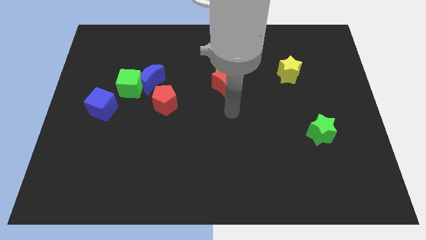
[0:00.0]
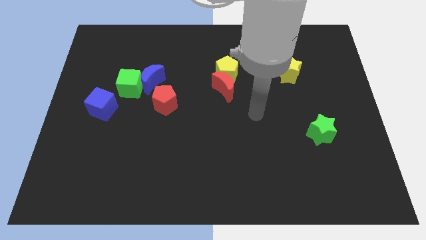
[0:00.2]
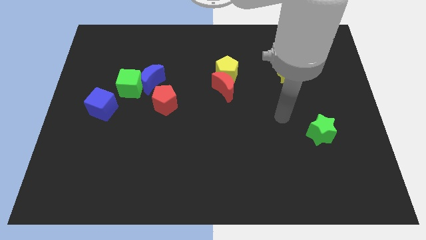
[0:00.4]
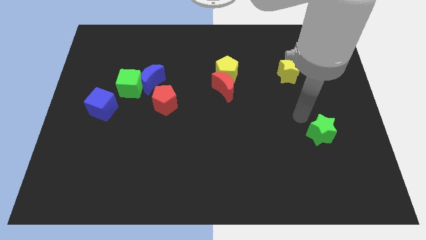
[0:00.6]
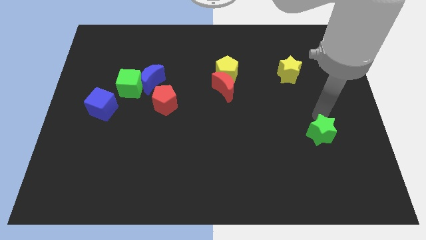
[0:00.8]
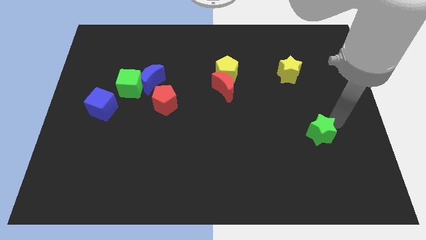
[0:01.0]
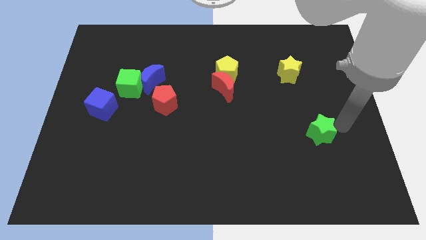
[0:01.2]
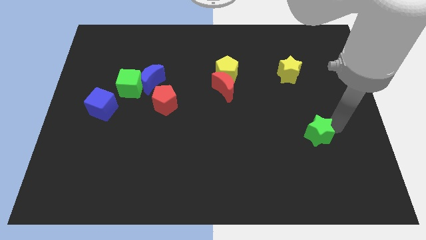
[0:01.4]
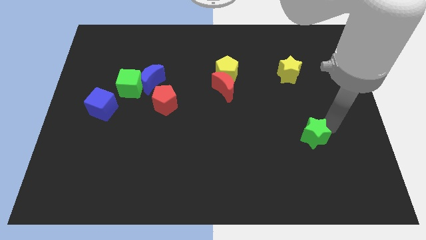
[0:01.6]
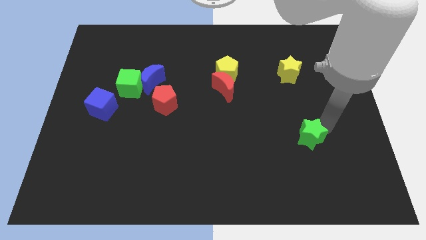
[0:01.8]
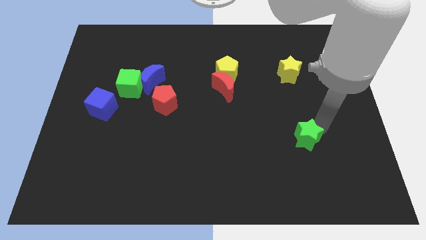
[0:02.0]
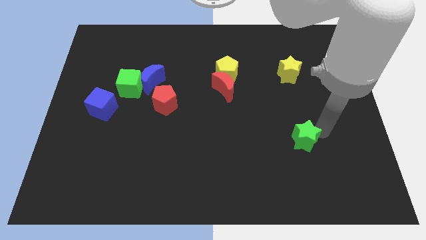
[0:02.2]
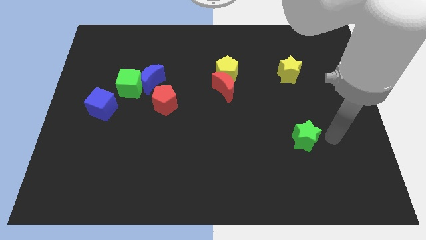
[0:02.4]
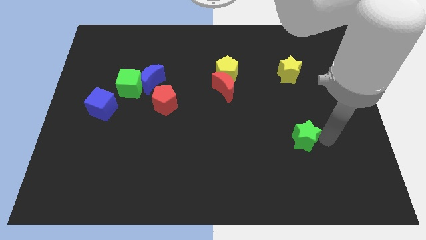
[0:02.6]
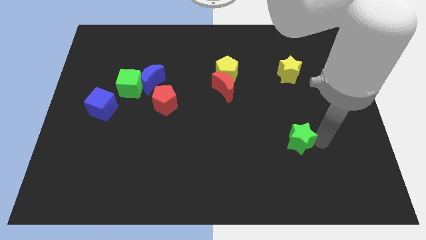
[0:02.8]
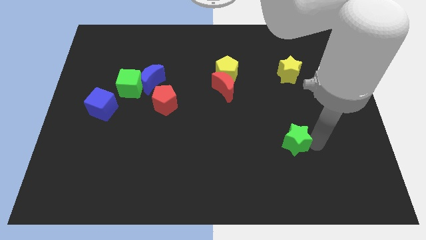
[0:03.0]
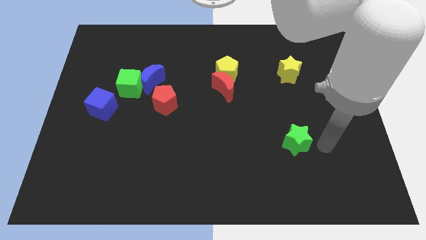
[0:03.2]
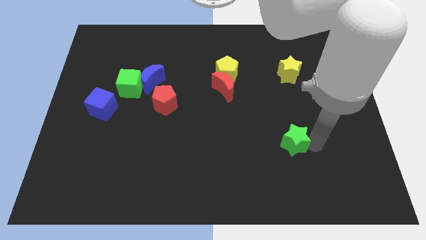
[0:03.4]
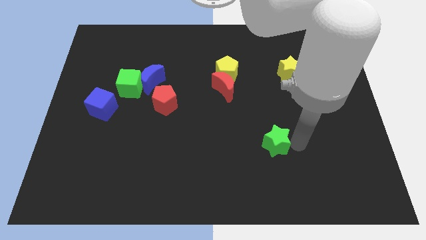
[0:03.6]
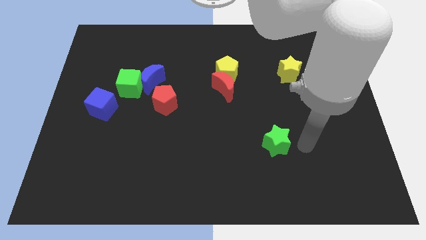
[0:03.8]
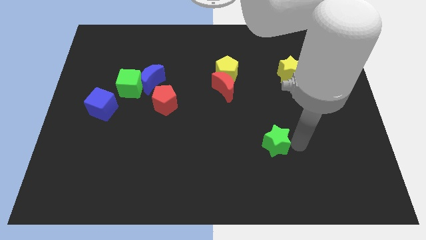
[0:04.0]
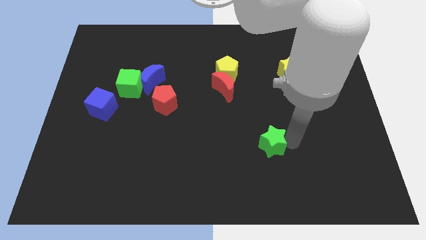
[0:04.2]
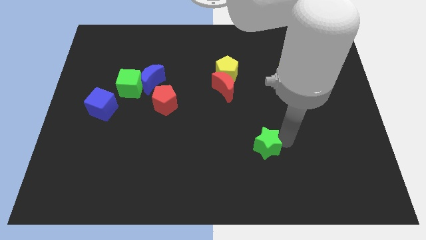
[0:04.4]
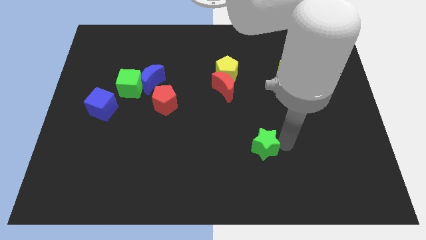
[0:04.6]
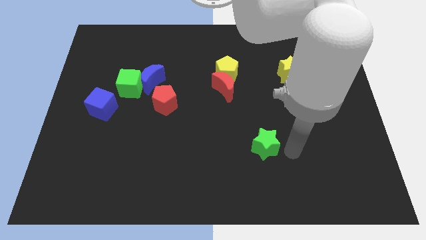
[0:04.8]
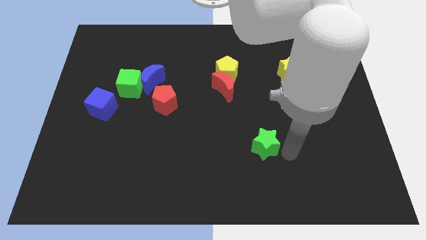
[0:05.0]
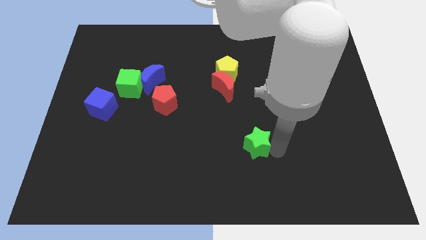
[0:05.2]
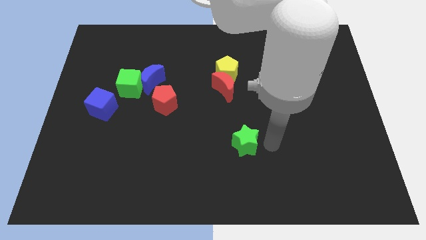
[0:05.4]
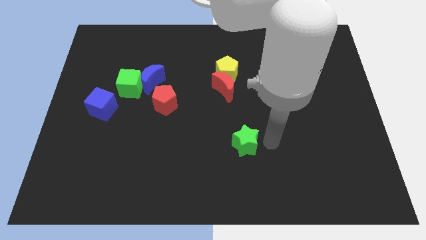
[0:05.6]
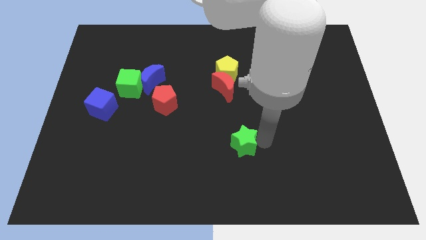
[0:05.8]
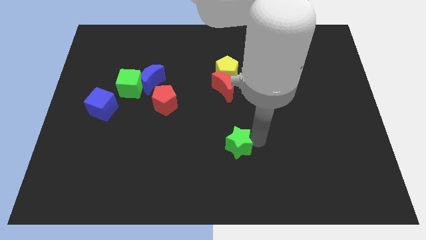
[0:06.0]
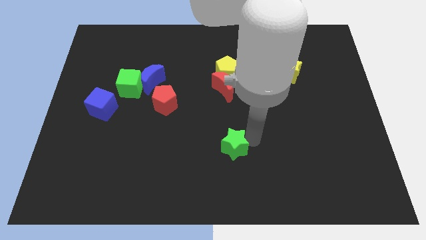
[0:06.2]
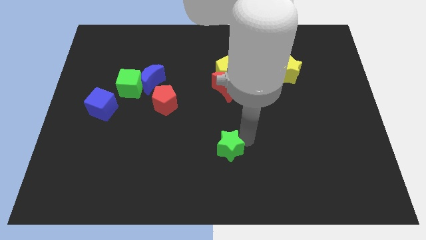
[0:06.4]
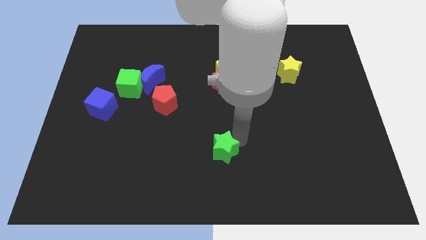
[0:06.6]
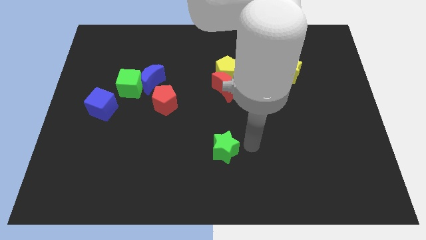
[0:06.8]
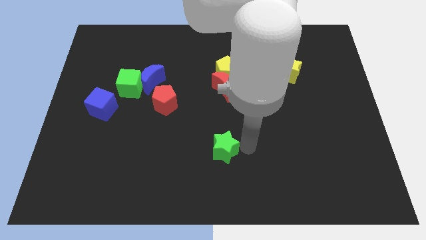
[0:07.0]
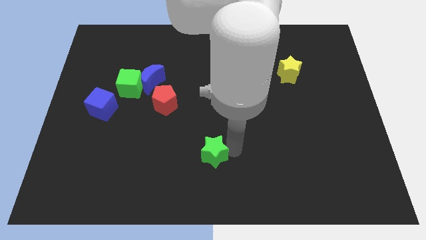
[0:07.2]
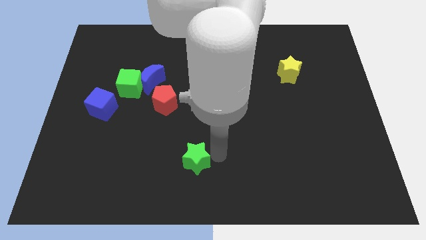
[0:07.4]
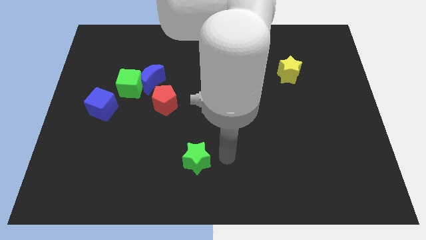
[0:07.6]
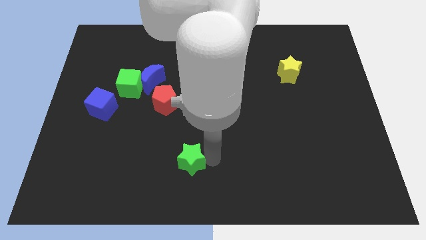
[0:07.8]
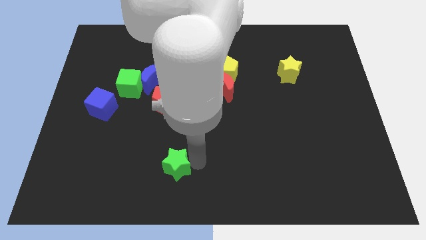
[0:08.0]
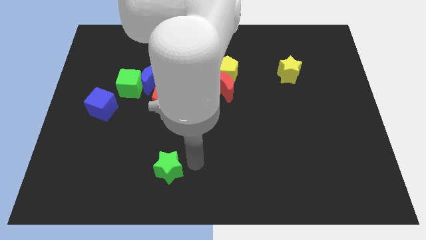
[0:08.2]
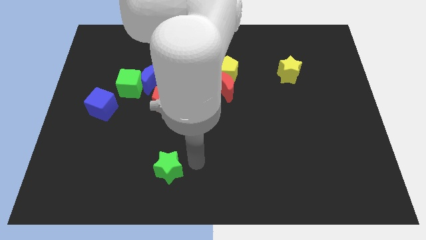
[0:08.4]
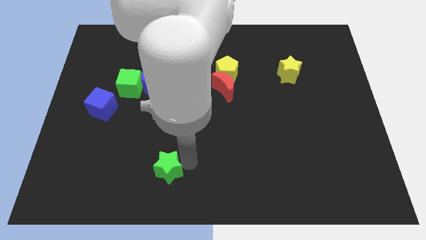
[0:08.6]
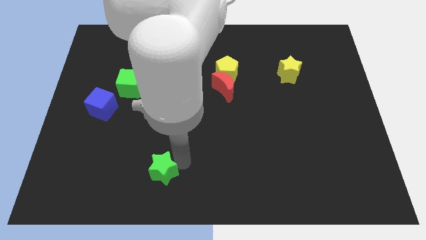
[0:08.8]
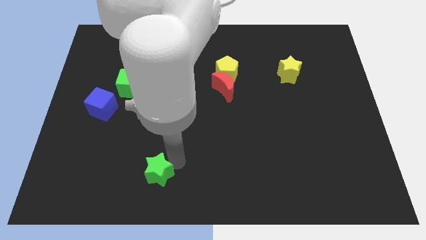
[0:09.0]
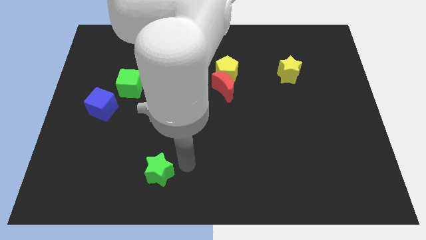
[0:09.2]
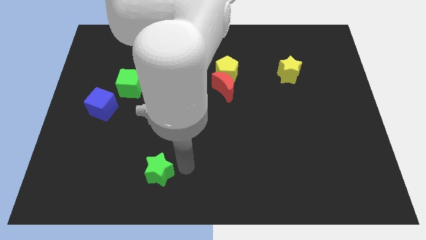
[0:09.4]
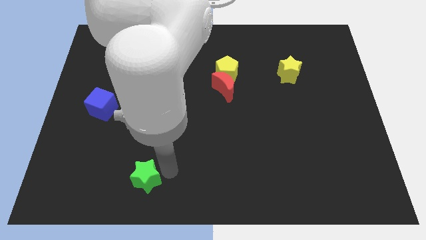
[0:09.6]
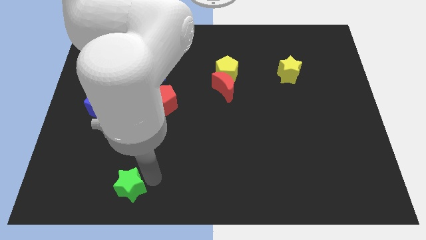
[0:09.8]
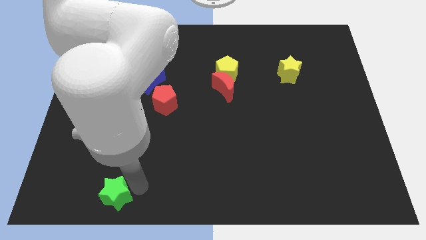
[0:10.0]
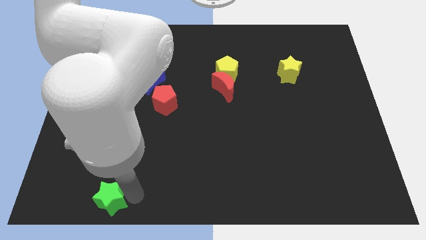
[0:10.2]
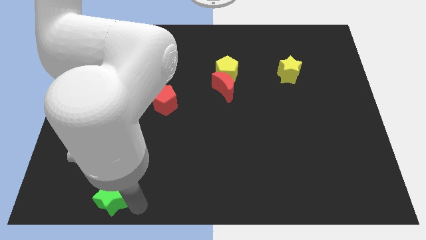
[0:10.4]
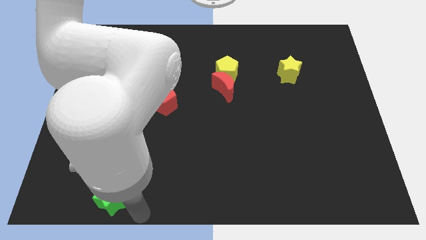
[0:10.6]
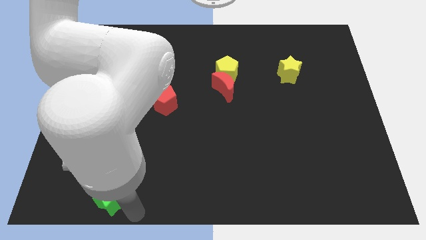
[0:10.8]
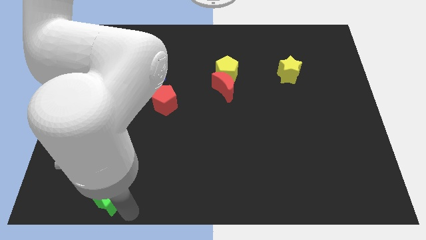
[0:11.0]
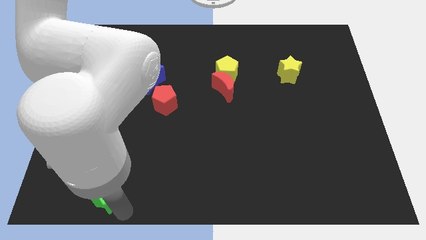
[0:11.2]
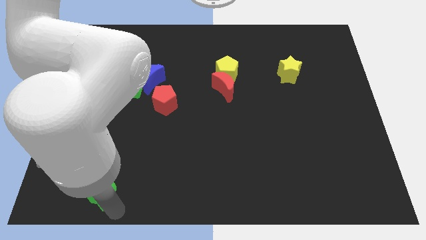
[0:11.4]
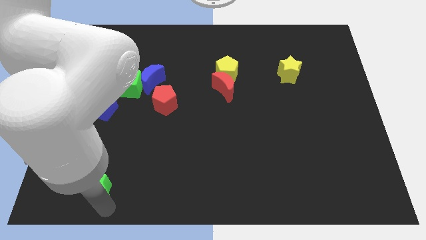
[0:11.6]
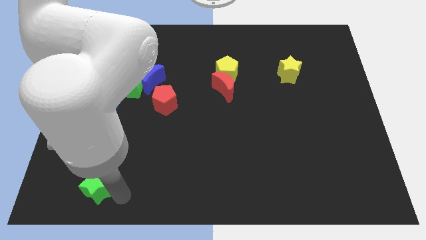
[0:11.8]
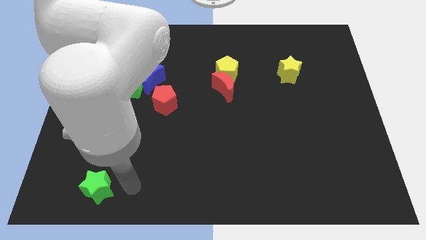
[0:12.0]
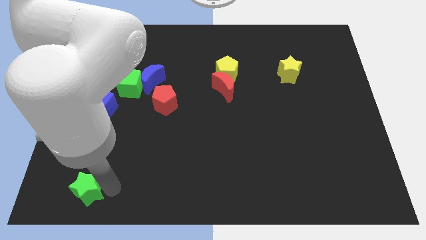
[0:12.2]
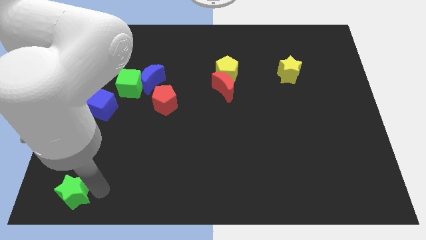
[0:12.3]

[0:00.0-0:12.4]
push the green star to the bottom left
